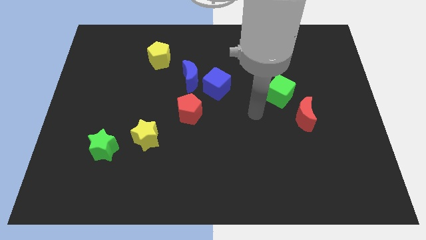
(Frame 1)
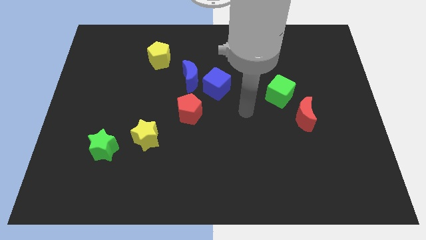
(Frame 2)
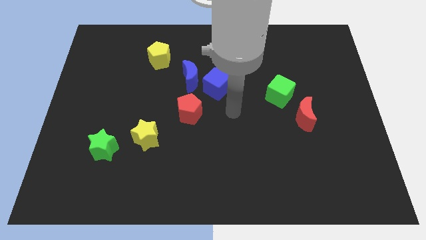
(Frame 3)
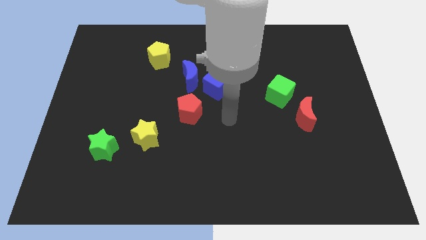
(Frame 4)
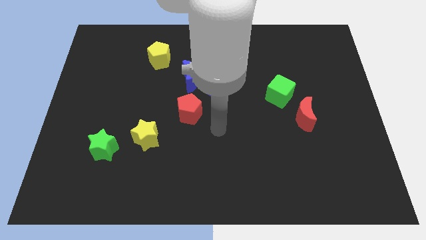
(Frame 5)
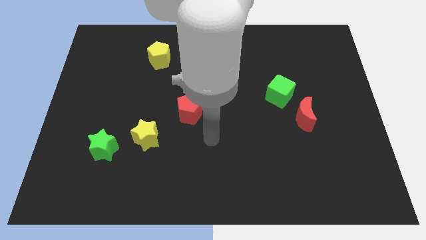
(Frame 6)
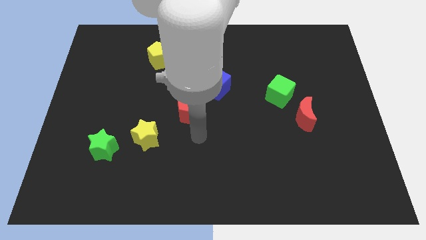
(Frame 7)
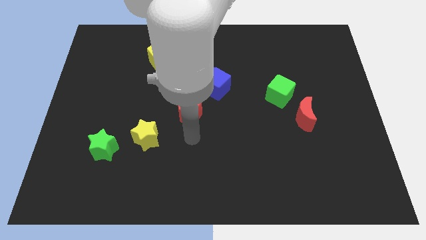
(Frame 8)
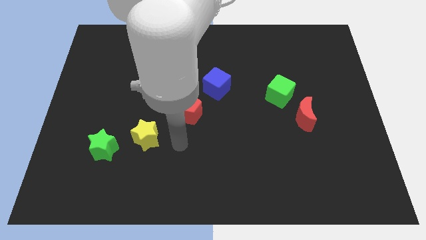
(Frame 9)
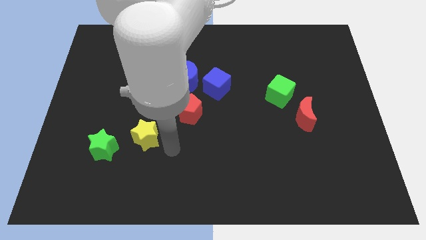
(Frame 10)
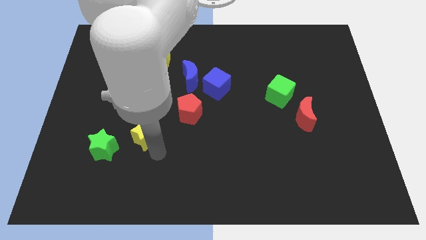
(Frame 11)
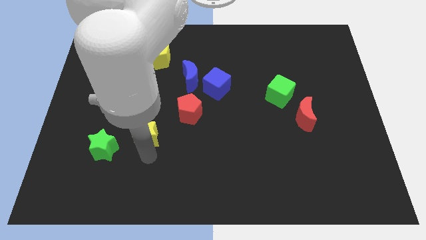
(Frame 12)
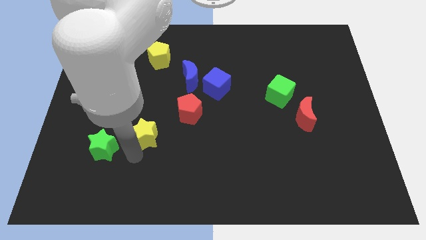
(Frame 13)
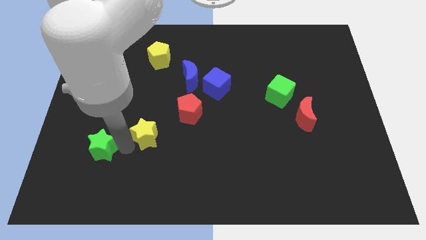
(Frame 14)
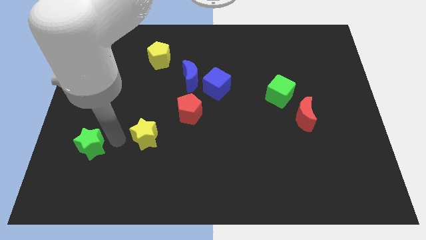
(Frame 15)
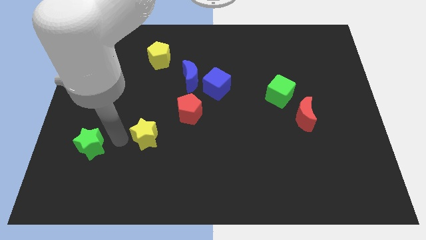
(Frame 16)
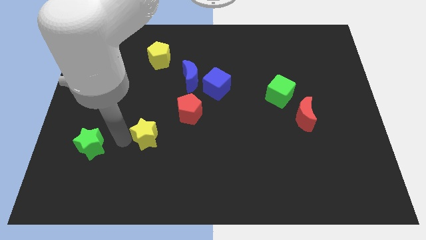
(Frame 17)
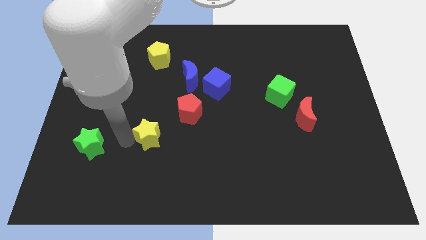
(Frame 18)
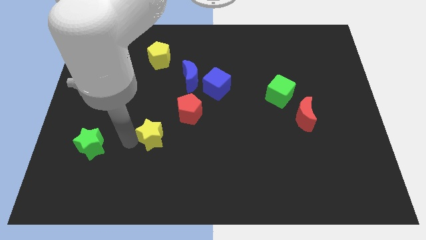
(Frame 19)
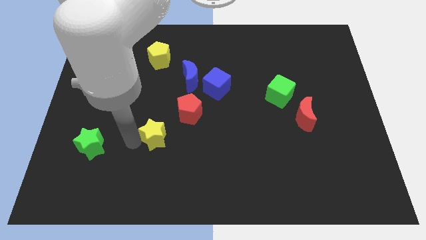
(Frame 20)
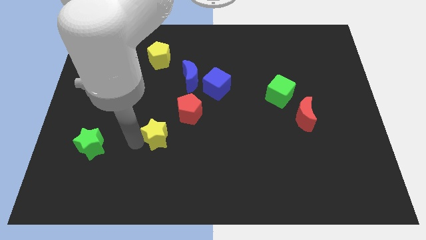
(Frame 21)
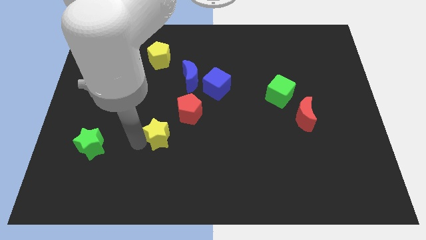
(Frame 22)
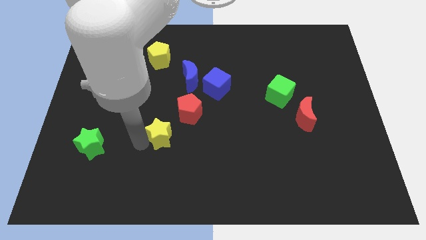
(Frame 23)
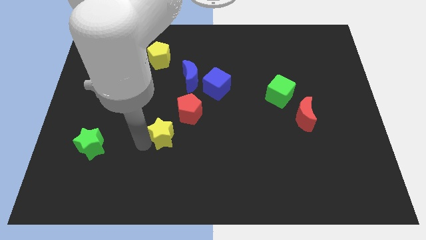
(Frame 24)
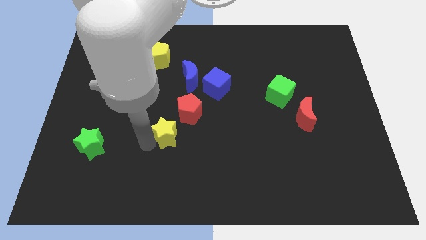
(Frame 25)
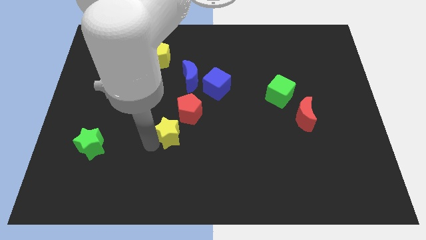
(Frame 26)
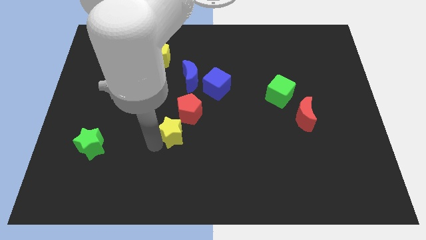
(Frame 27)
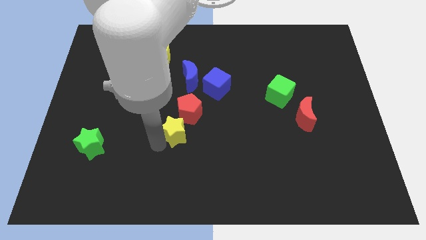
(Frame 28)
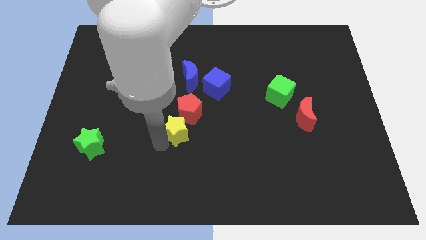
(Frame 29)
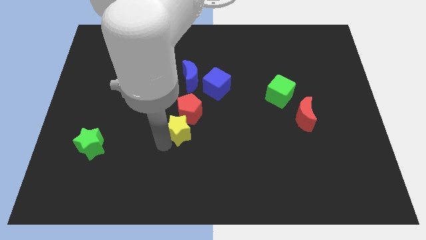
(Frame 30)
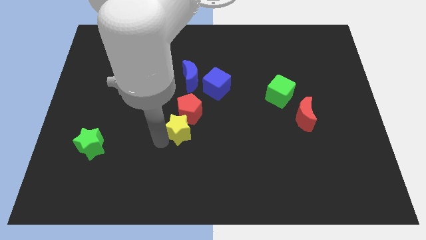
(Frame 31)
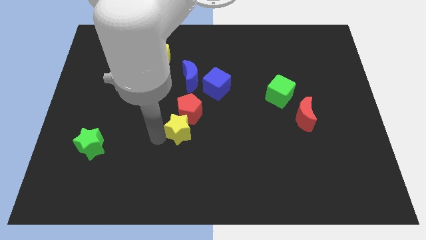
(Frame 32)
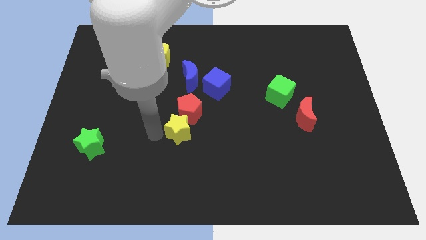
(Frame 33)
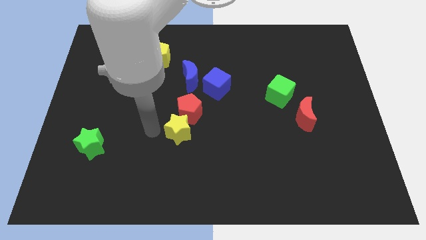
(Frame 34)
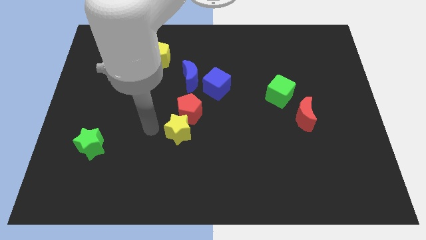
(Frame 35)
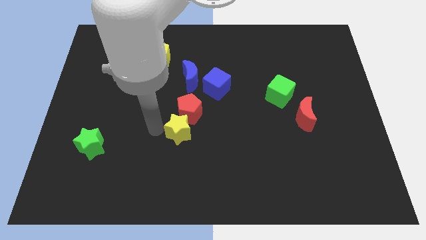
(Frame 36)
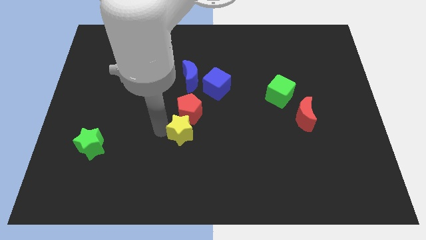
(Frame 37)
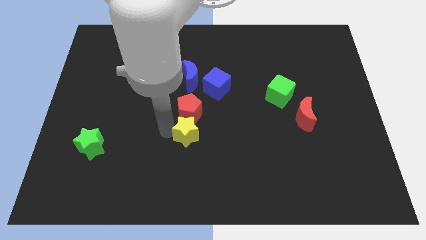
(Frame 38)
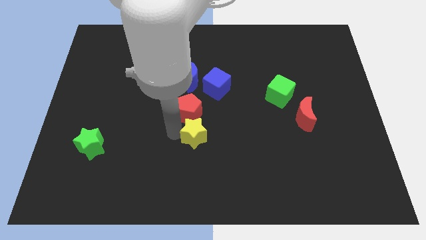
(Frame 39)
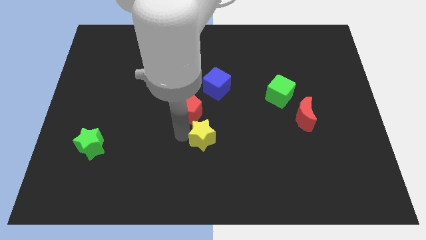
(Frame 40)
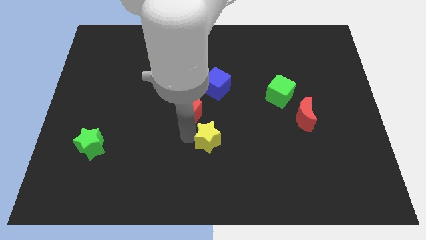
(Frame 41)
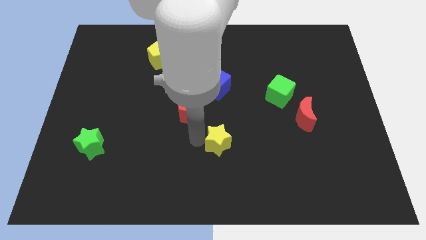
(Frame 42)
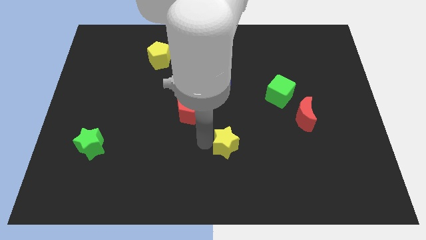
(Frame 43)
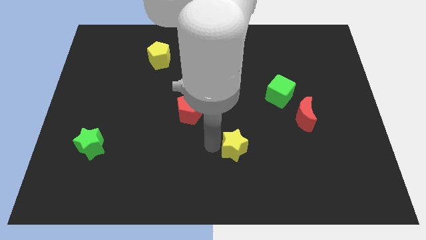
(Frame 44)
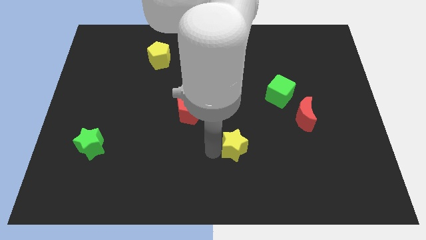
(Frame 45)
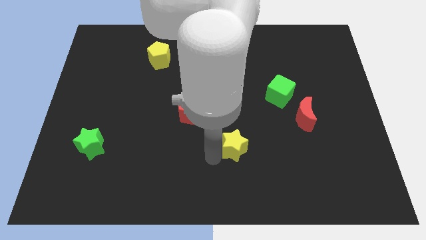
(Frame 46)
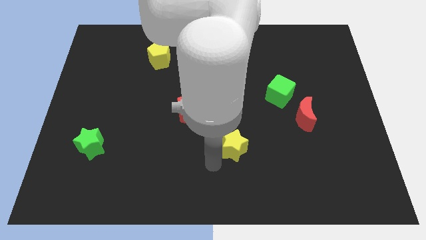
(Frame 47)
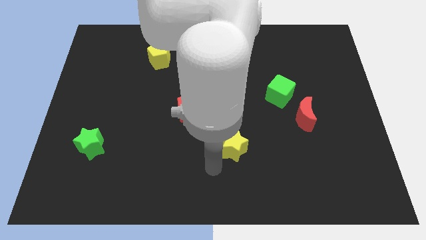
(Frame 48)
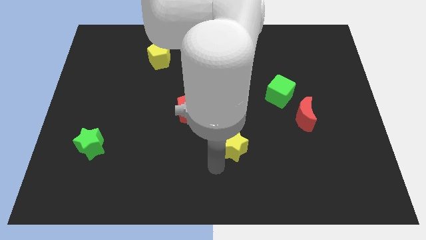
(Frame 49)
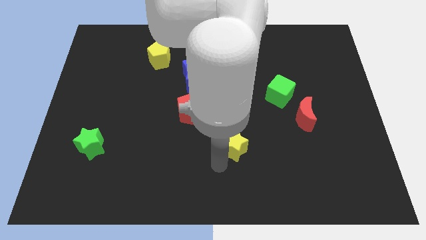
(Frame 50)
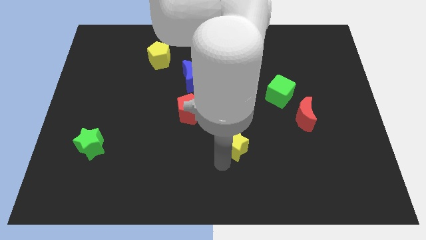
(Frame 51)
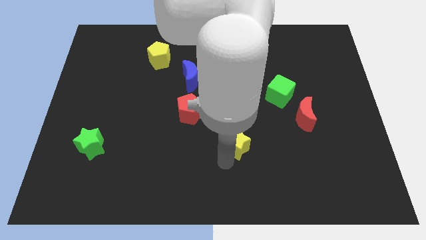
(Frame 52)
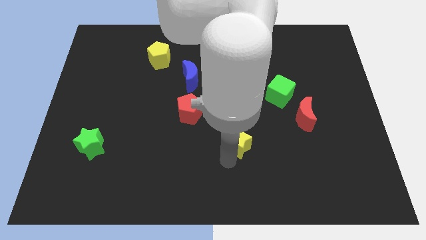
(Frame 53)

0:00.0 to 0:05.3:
push the yellow star right

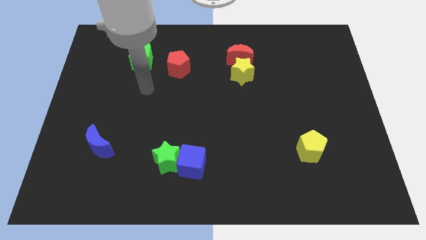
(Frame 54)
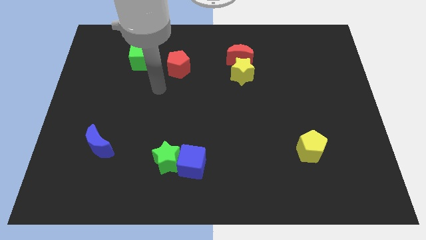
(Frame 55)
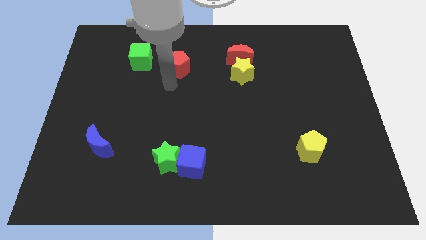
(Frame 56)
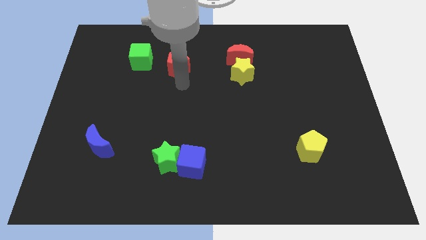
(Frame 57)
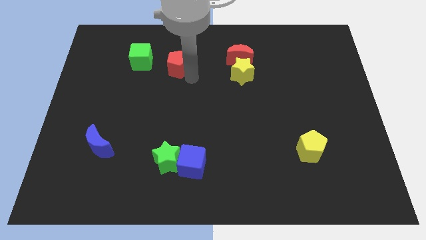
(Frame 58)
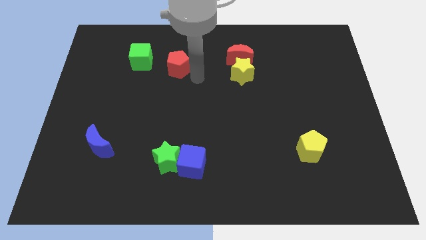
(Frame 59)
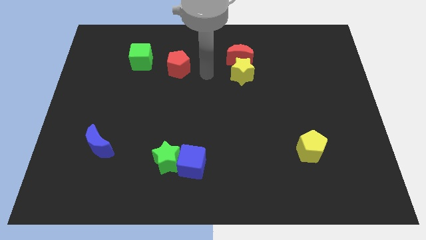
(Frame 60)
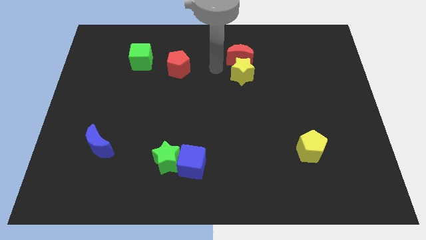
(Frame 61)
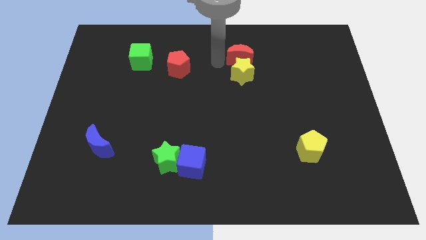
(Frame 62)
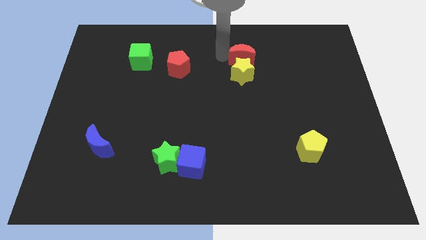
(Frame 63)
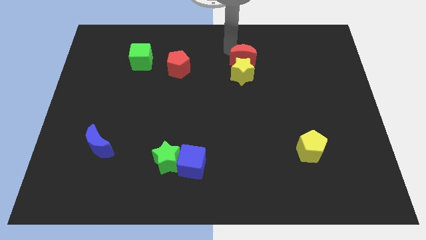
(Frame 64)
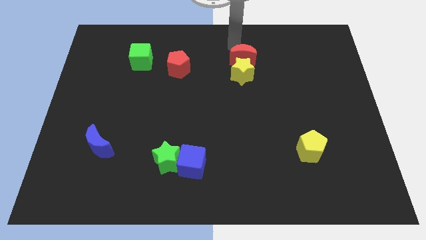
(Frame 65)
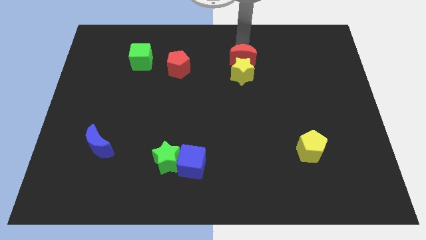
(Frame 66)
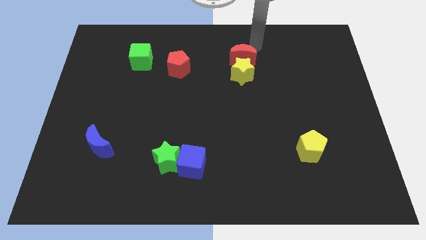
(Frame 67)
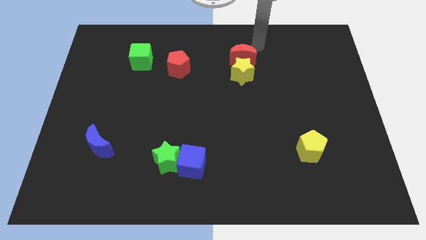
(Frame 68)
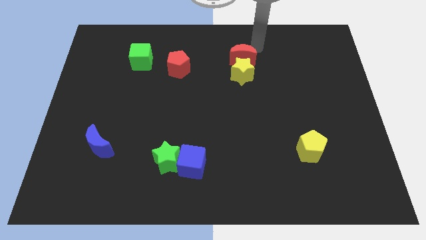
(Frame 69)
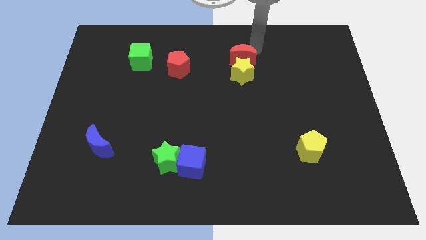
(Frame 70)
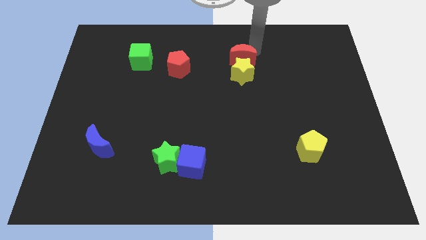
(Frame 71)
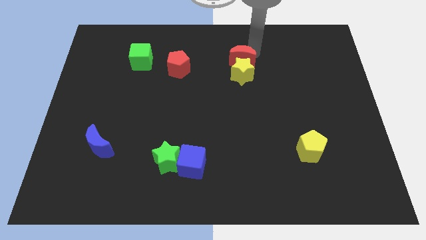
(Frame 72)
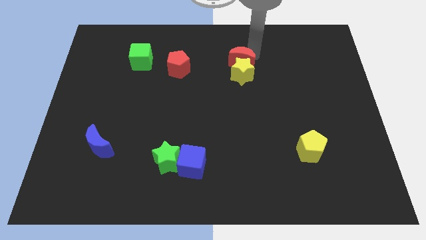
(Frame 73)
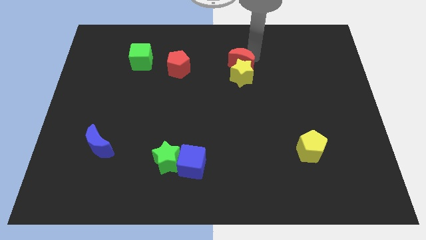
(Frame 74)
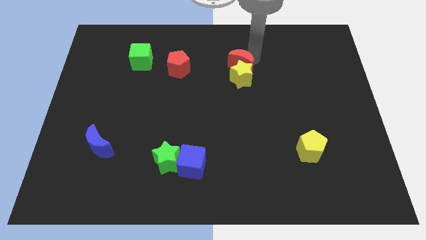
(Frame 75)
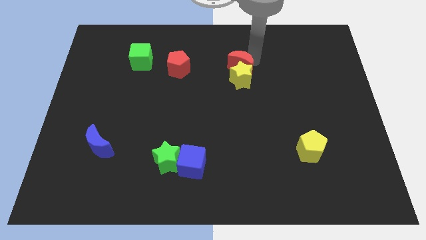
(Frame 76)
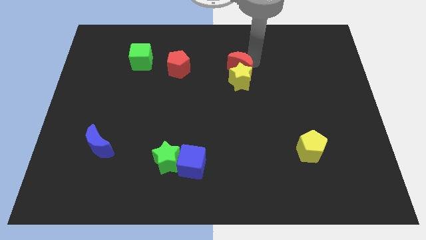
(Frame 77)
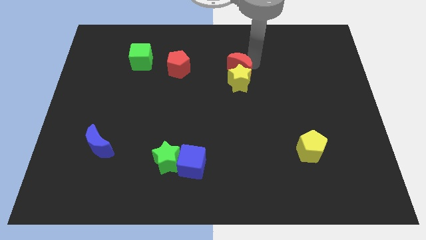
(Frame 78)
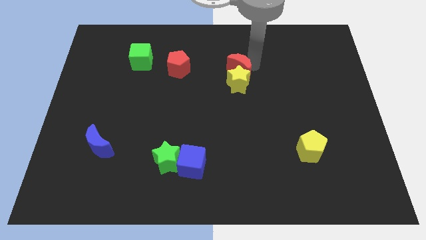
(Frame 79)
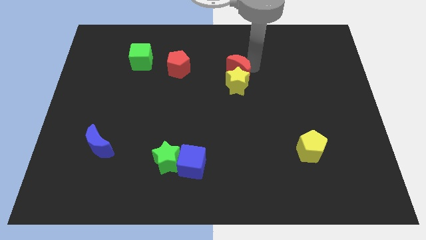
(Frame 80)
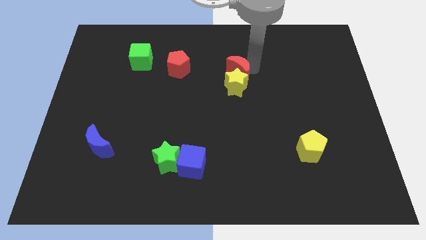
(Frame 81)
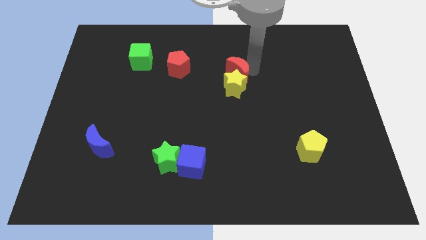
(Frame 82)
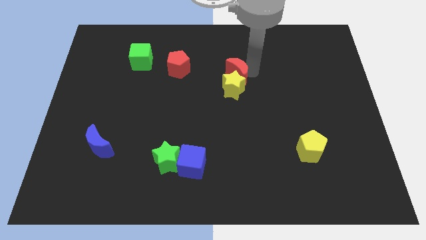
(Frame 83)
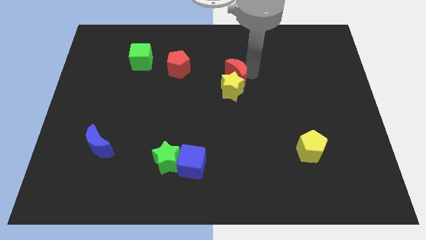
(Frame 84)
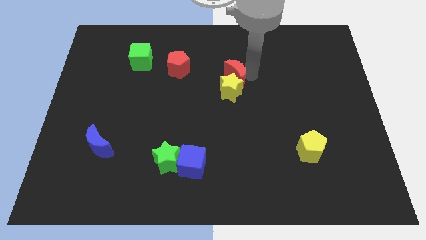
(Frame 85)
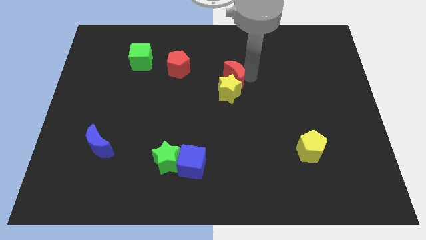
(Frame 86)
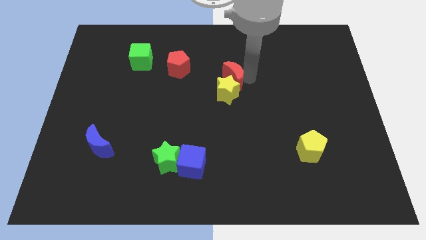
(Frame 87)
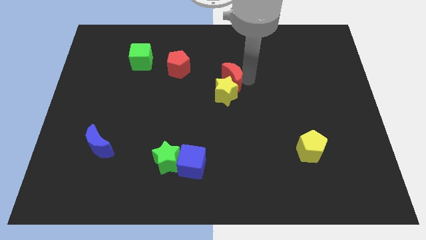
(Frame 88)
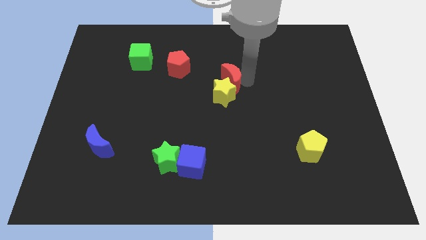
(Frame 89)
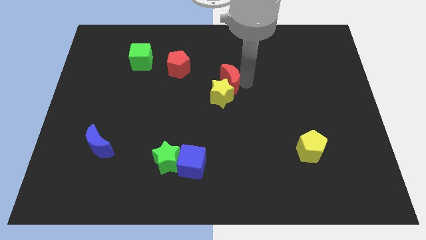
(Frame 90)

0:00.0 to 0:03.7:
push the red moon down and then to the left a little bit
